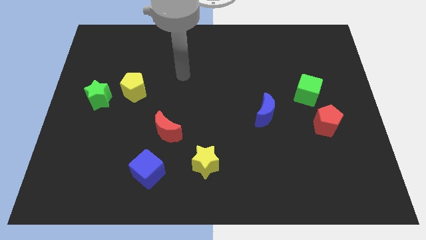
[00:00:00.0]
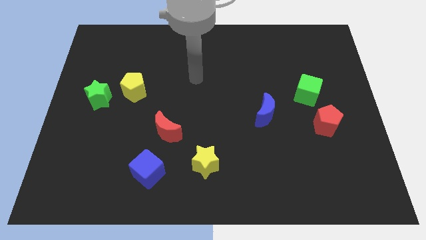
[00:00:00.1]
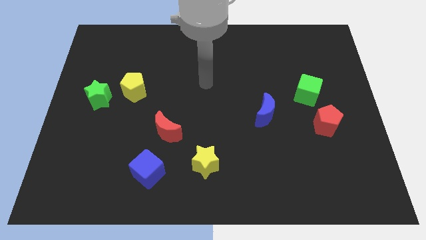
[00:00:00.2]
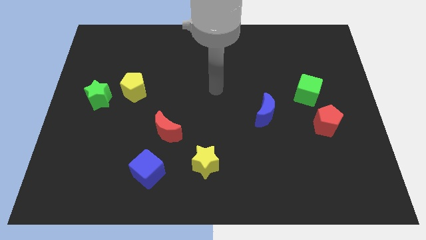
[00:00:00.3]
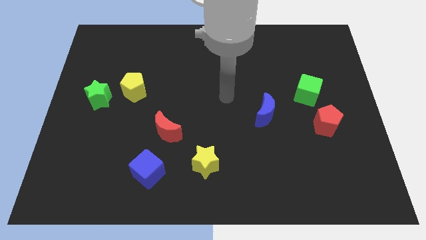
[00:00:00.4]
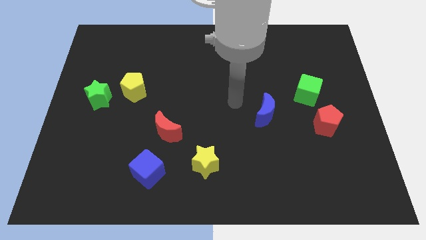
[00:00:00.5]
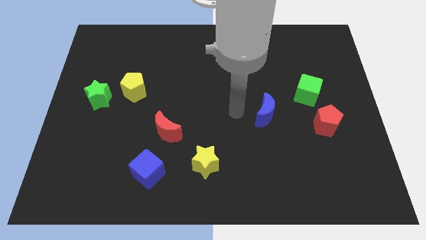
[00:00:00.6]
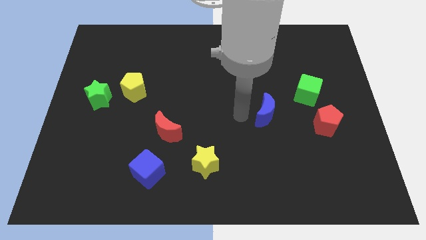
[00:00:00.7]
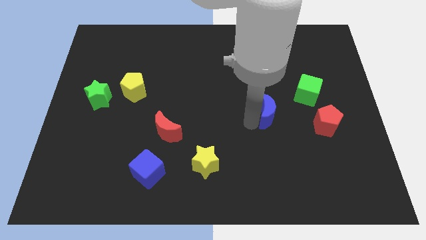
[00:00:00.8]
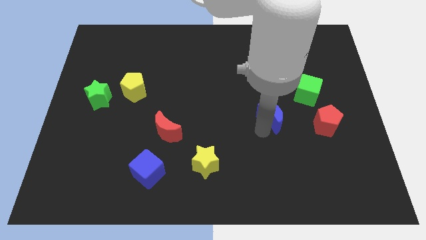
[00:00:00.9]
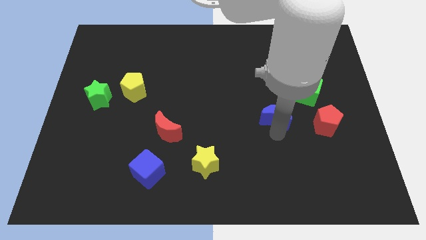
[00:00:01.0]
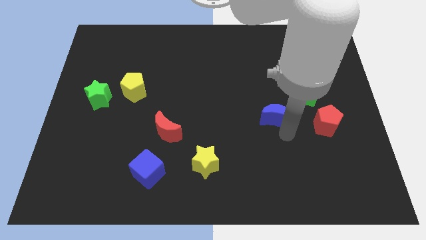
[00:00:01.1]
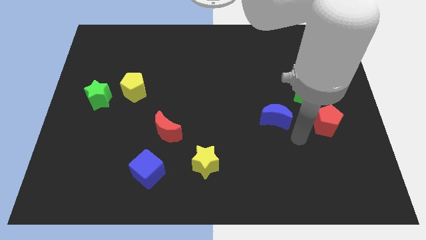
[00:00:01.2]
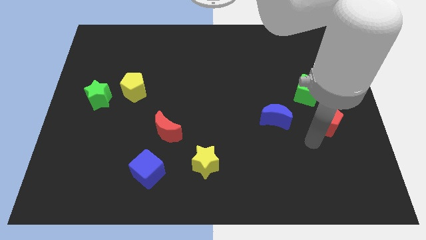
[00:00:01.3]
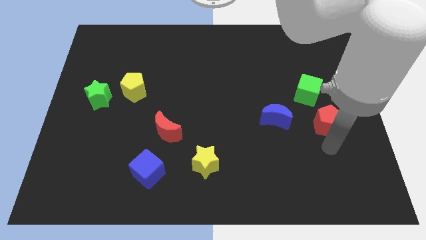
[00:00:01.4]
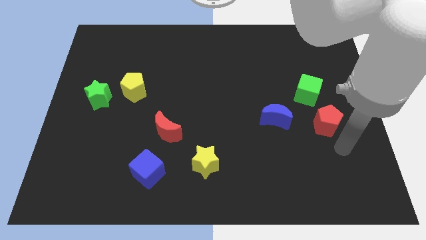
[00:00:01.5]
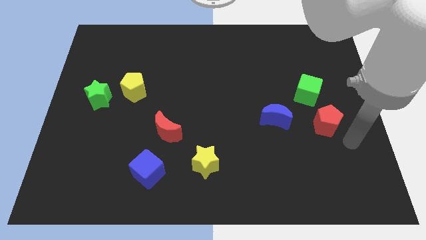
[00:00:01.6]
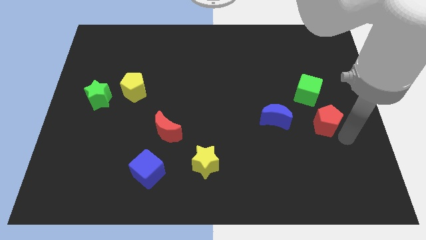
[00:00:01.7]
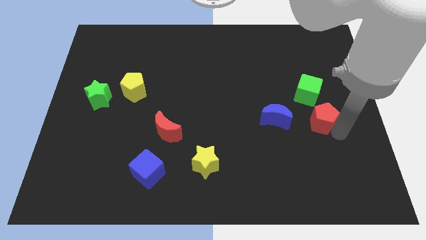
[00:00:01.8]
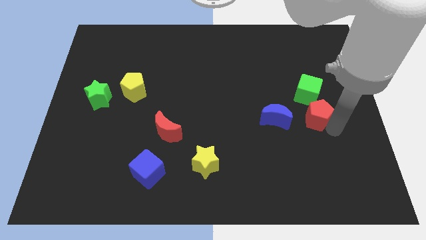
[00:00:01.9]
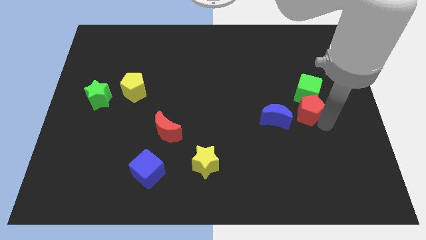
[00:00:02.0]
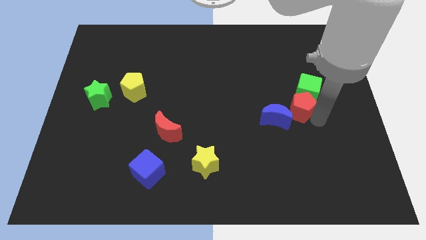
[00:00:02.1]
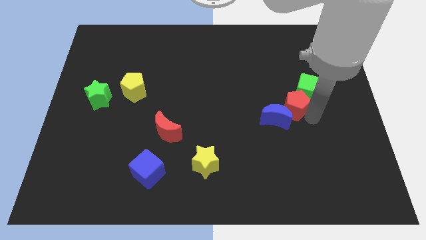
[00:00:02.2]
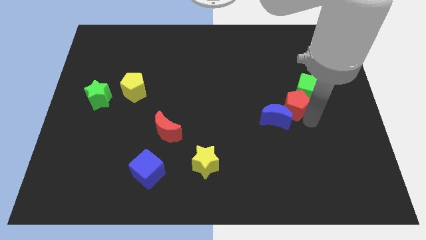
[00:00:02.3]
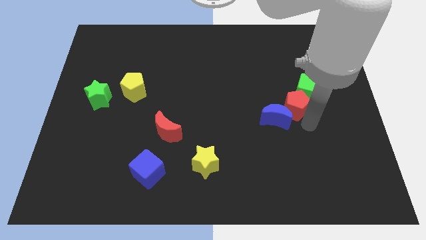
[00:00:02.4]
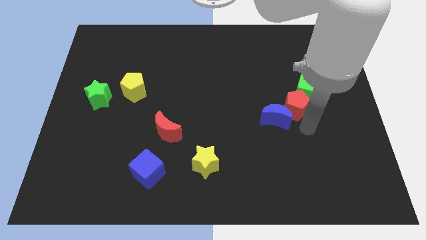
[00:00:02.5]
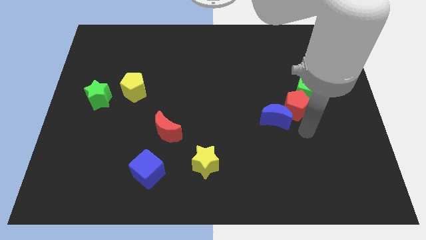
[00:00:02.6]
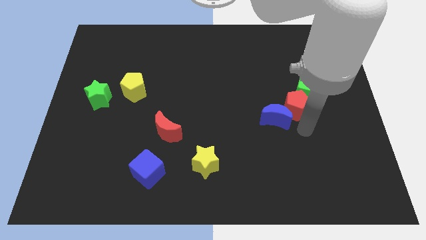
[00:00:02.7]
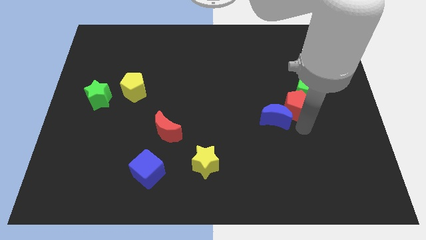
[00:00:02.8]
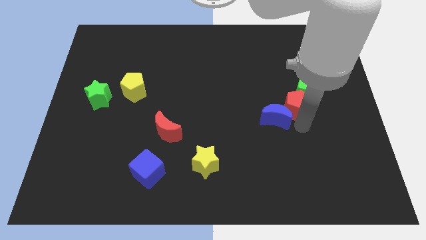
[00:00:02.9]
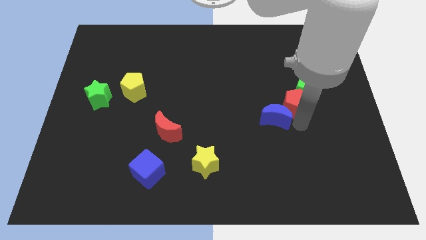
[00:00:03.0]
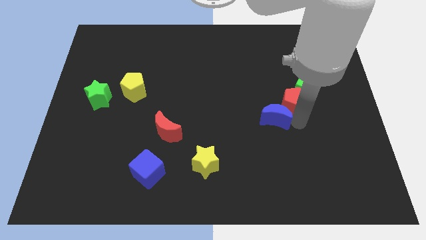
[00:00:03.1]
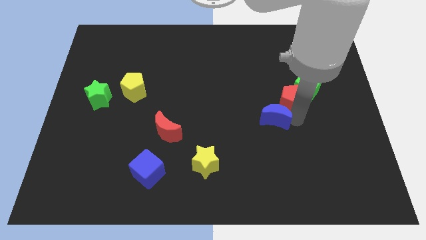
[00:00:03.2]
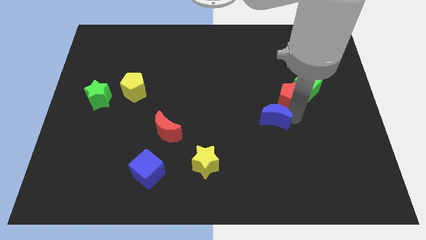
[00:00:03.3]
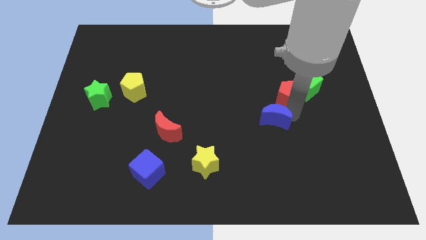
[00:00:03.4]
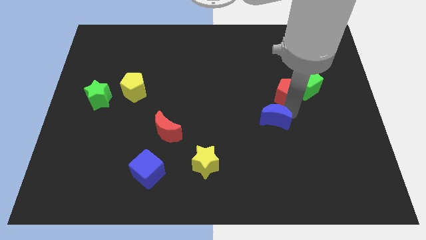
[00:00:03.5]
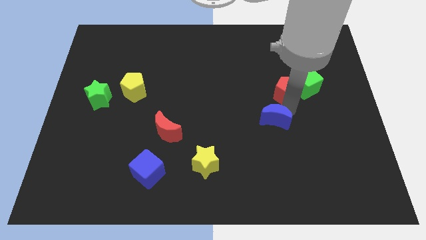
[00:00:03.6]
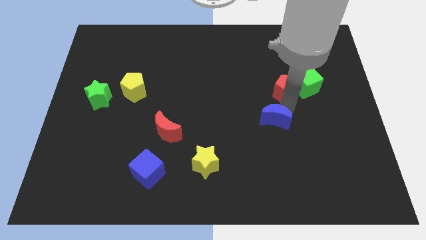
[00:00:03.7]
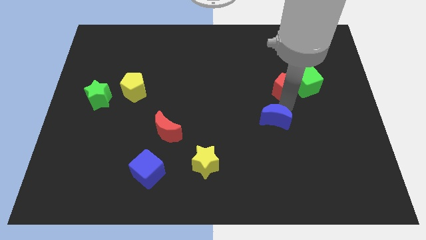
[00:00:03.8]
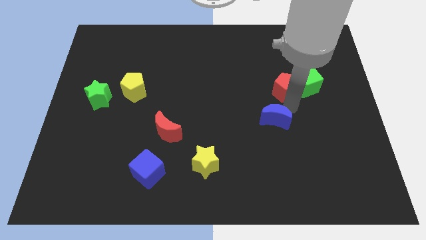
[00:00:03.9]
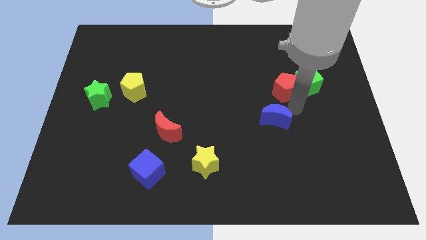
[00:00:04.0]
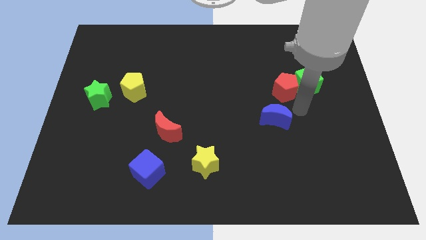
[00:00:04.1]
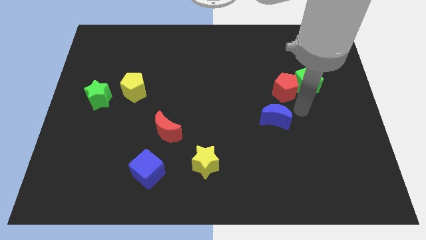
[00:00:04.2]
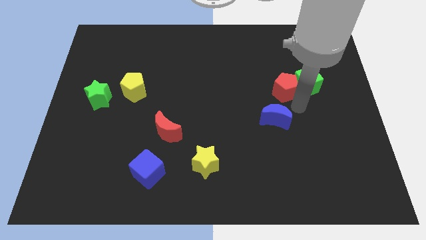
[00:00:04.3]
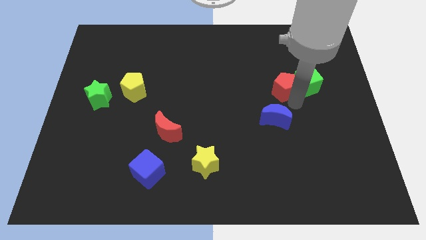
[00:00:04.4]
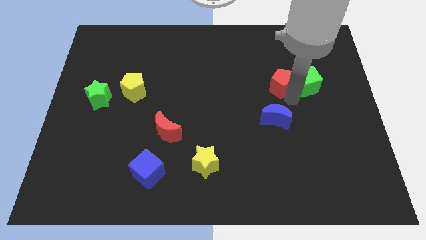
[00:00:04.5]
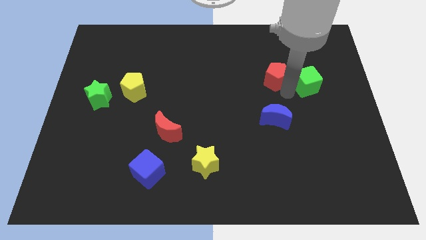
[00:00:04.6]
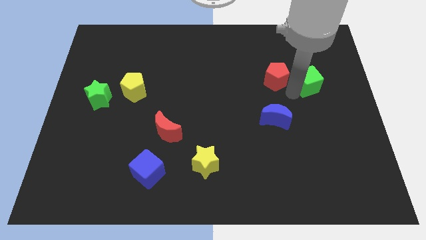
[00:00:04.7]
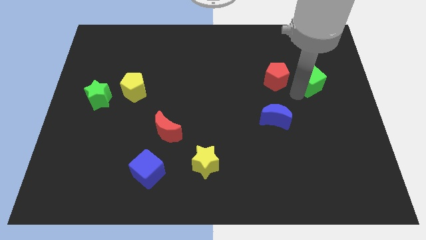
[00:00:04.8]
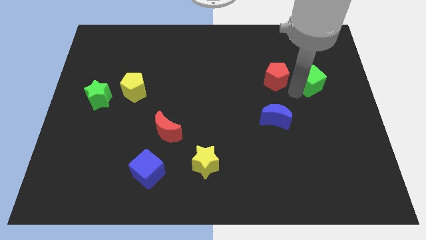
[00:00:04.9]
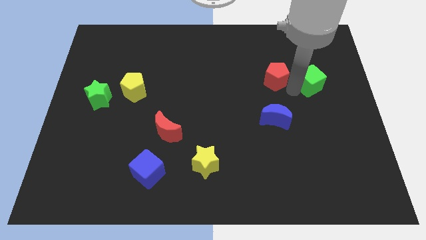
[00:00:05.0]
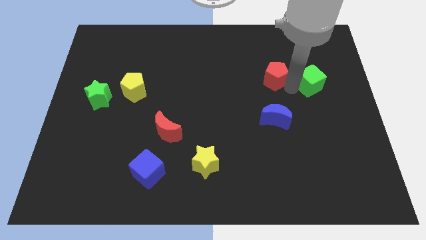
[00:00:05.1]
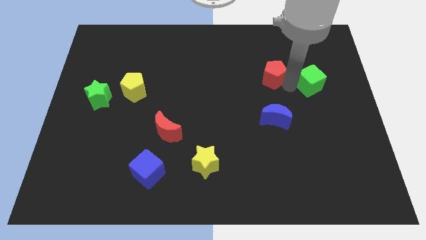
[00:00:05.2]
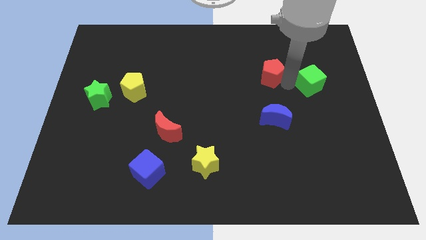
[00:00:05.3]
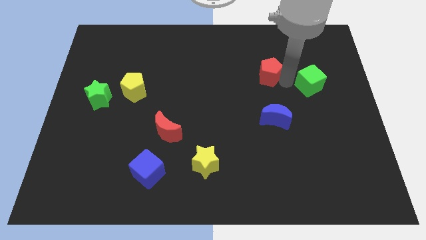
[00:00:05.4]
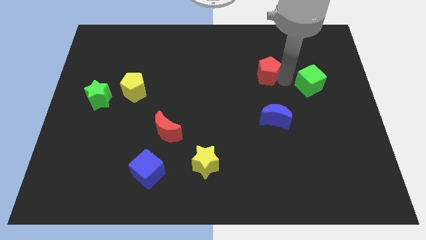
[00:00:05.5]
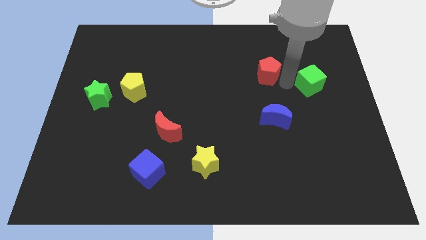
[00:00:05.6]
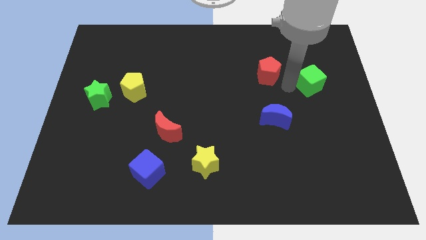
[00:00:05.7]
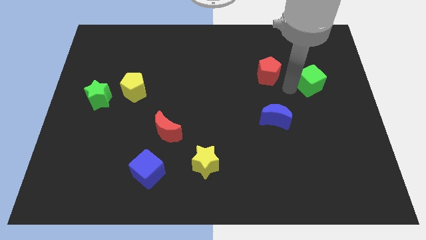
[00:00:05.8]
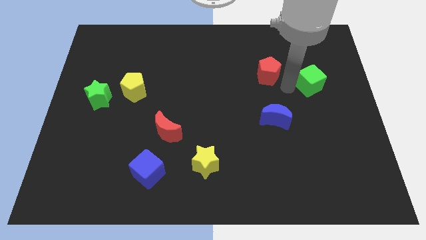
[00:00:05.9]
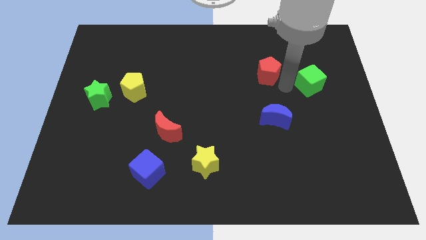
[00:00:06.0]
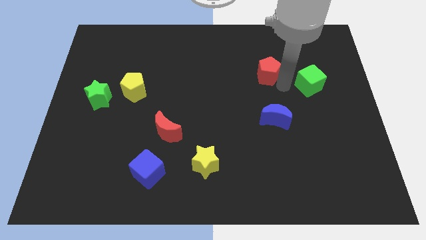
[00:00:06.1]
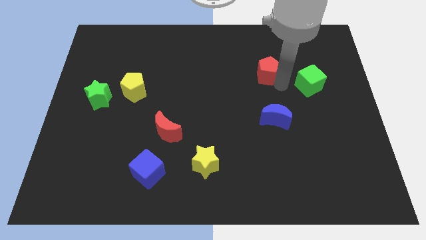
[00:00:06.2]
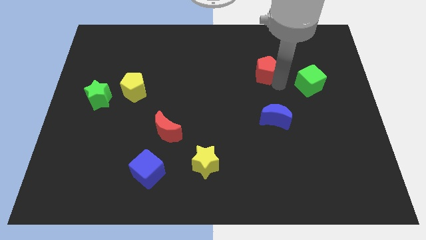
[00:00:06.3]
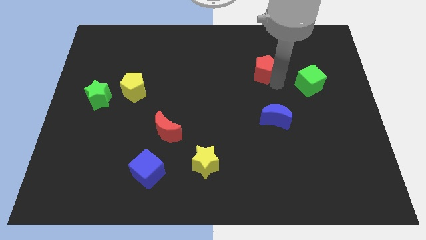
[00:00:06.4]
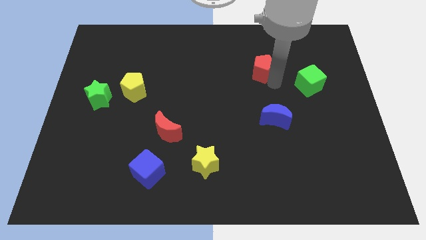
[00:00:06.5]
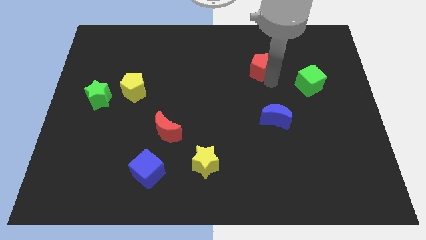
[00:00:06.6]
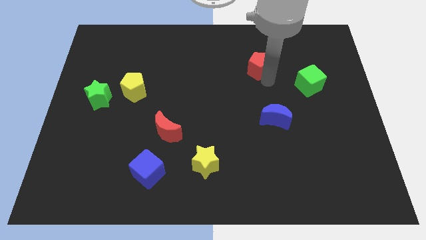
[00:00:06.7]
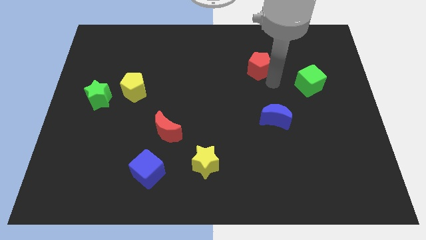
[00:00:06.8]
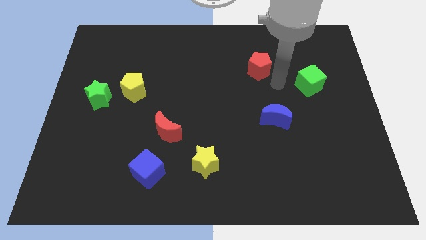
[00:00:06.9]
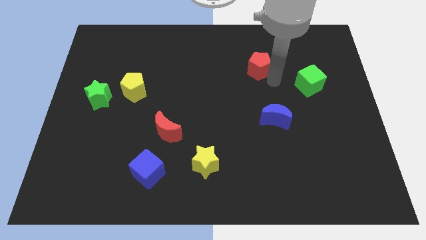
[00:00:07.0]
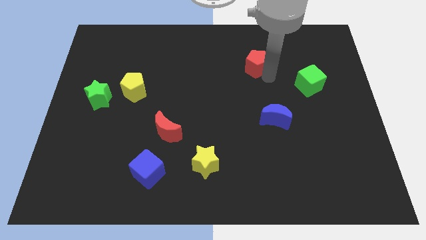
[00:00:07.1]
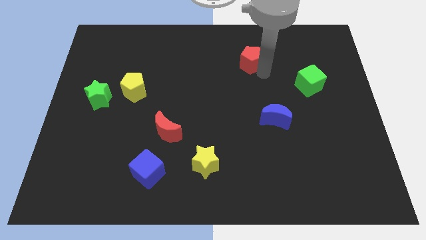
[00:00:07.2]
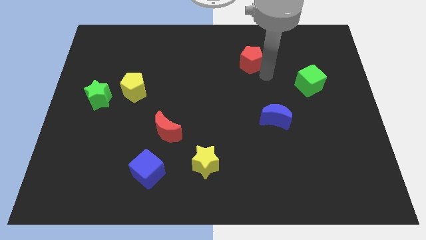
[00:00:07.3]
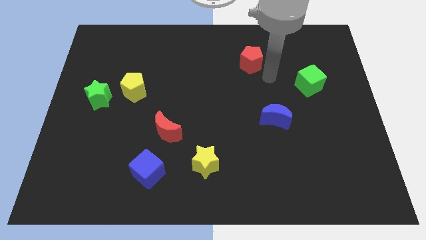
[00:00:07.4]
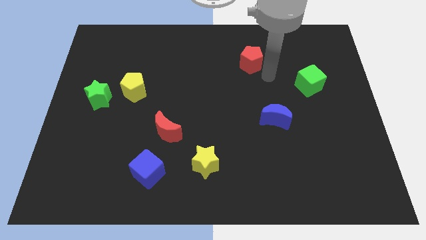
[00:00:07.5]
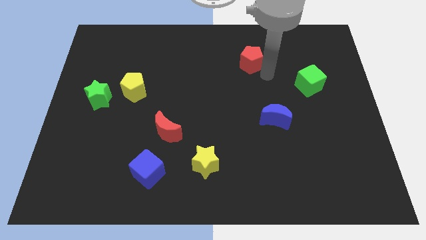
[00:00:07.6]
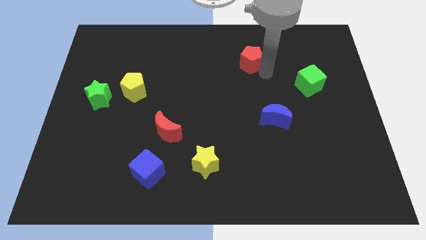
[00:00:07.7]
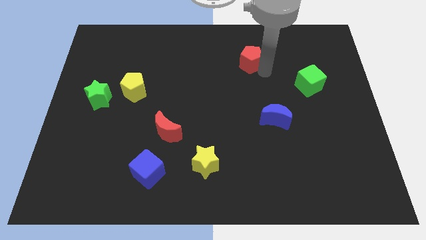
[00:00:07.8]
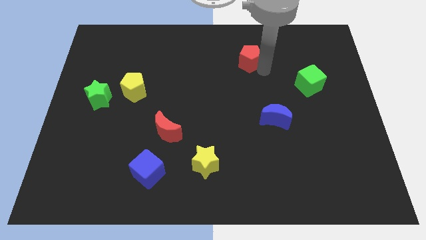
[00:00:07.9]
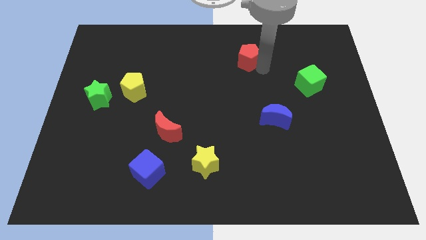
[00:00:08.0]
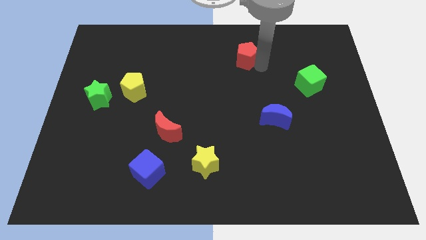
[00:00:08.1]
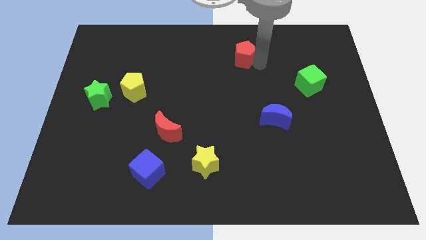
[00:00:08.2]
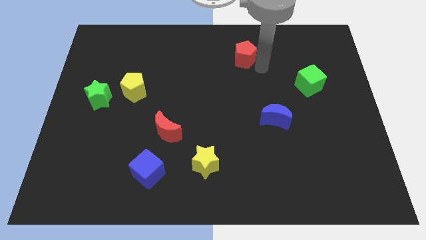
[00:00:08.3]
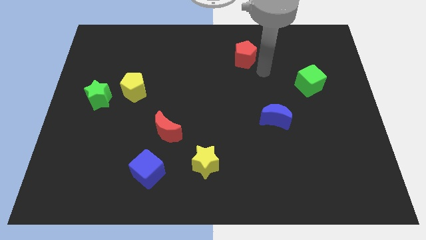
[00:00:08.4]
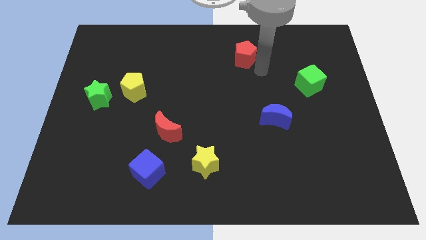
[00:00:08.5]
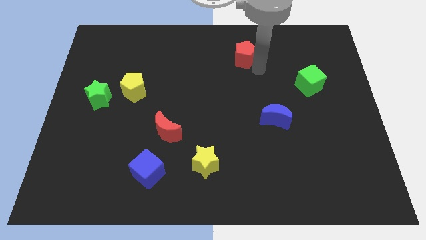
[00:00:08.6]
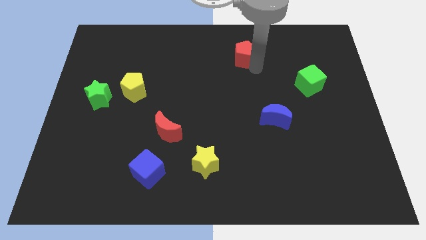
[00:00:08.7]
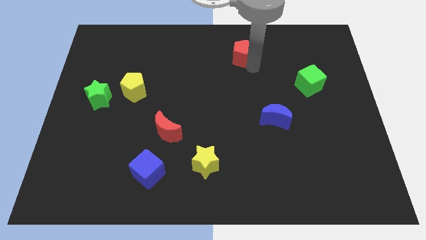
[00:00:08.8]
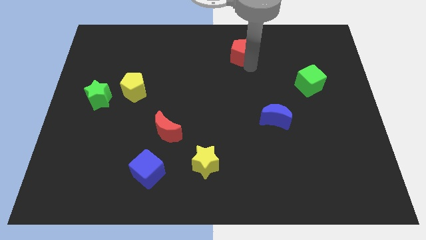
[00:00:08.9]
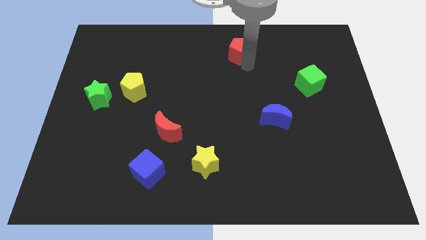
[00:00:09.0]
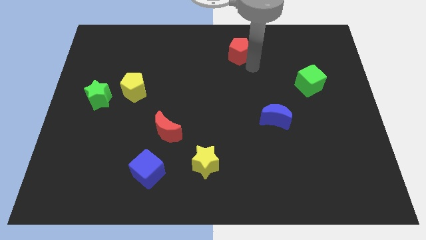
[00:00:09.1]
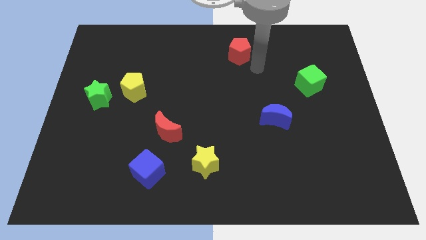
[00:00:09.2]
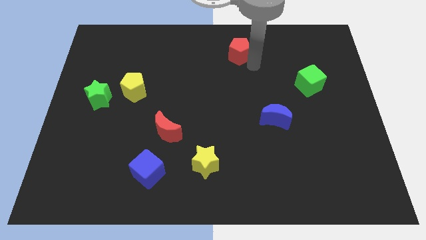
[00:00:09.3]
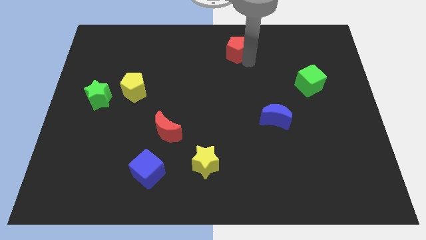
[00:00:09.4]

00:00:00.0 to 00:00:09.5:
move the red pentagon to the top
